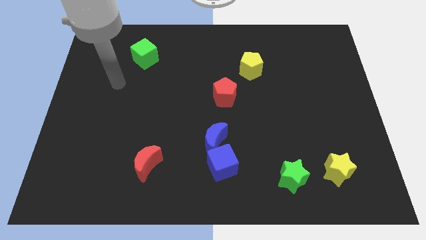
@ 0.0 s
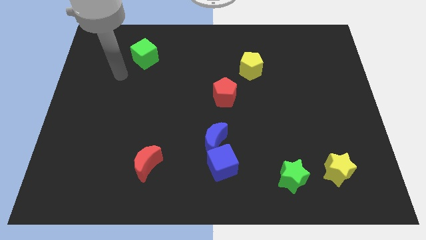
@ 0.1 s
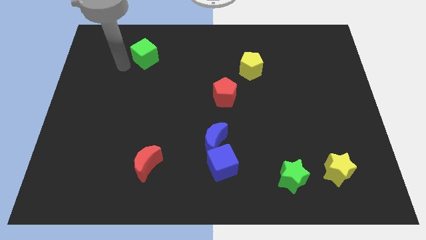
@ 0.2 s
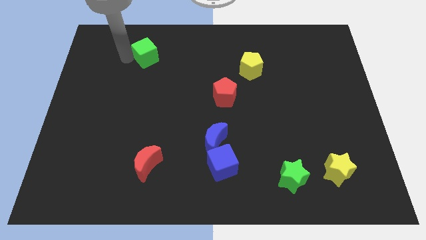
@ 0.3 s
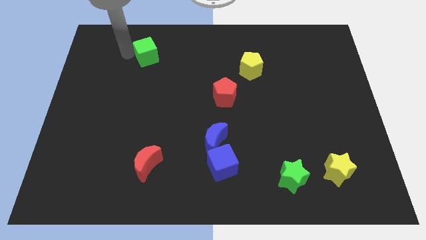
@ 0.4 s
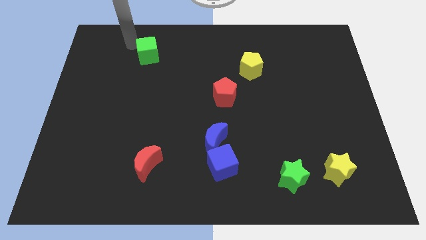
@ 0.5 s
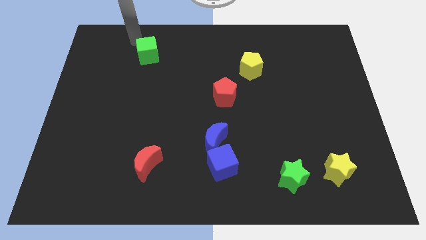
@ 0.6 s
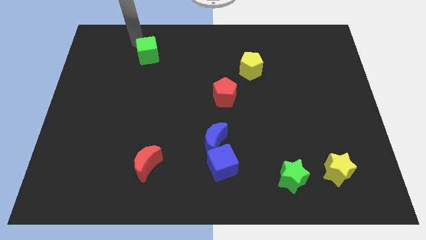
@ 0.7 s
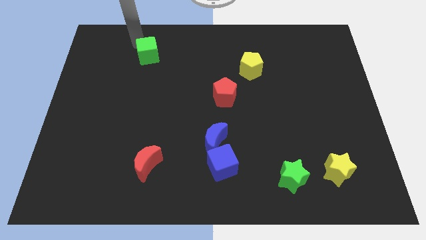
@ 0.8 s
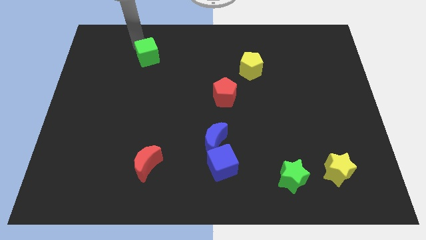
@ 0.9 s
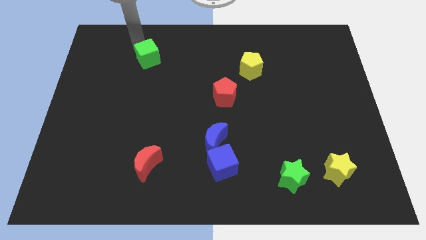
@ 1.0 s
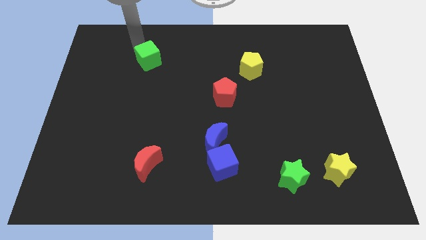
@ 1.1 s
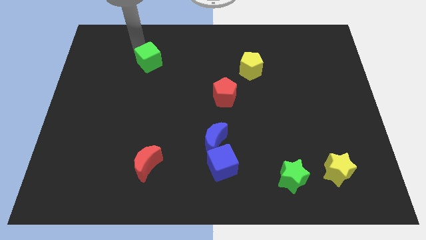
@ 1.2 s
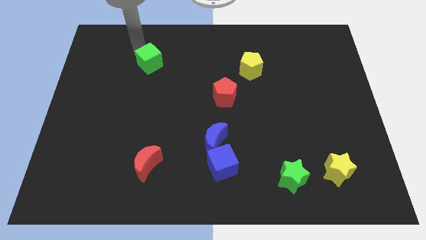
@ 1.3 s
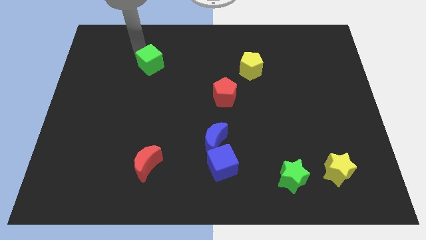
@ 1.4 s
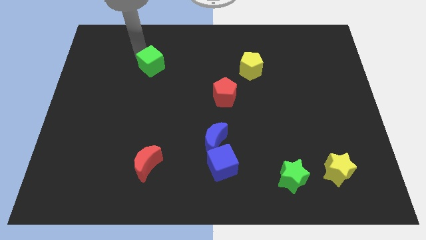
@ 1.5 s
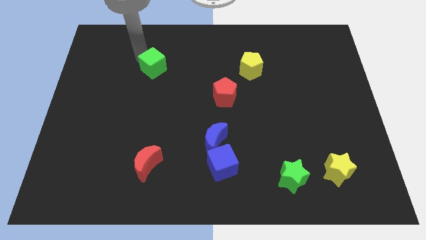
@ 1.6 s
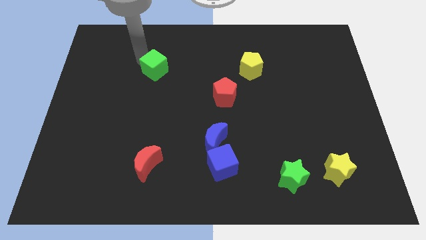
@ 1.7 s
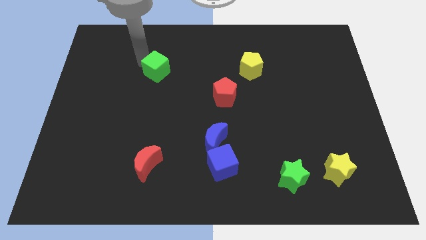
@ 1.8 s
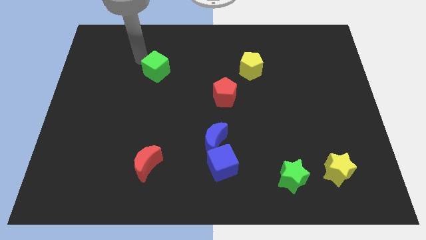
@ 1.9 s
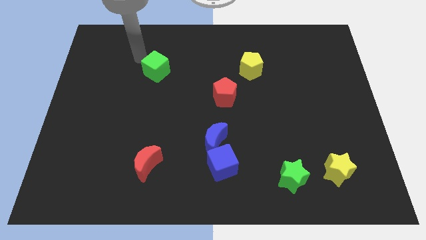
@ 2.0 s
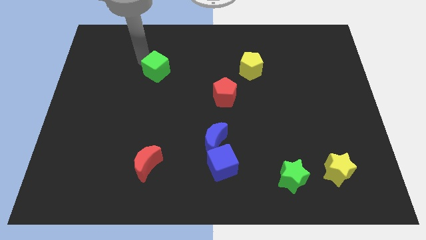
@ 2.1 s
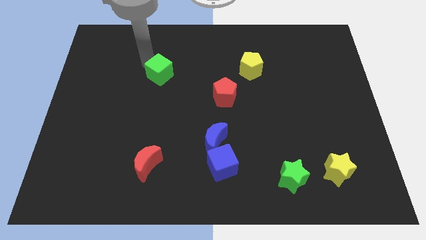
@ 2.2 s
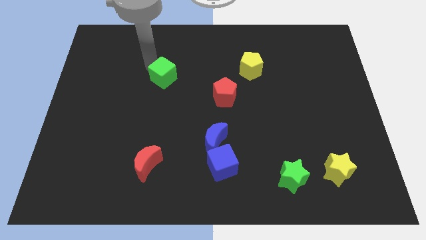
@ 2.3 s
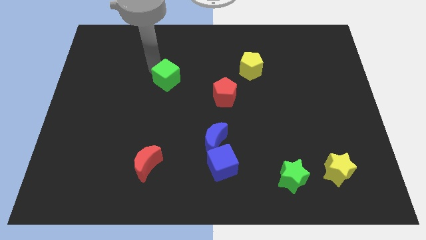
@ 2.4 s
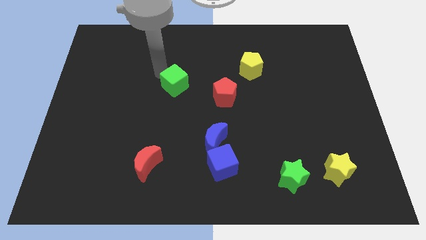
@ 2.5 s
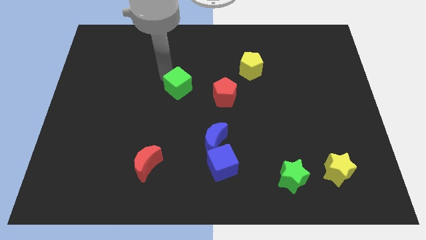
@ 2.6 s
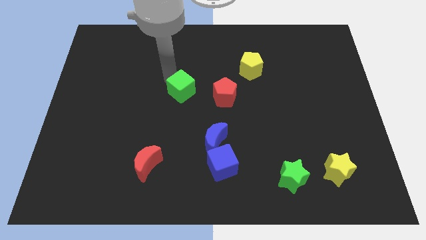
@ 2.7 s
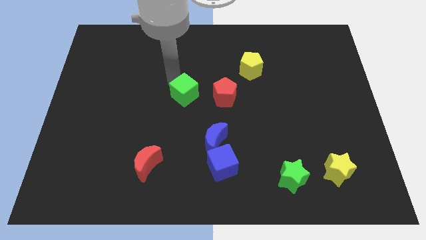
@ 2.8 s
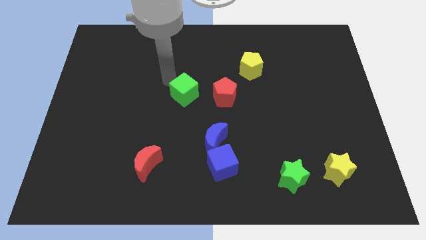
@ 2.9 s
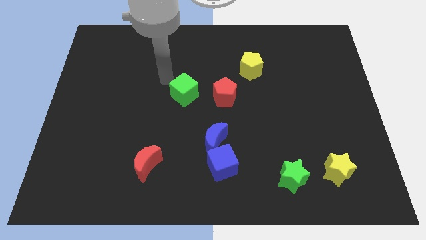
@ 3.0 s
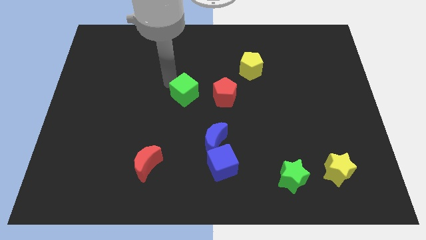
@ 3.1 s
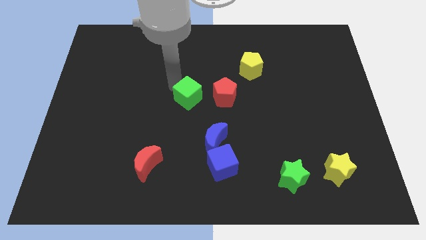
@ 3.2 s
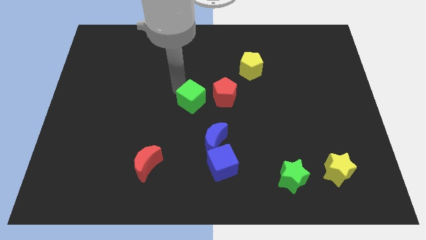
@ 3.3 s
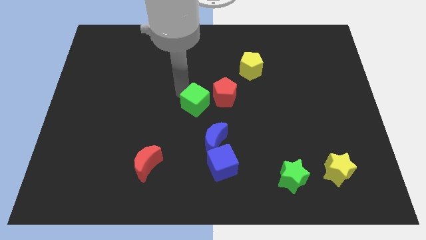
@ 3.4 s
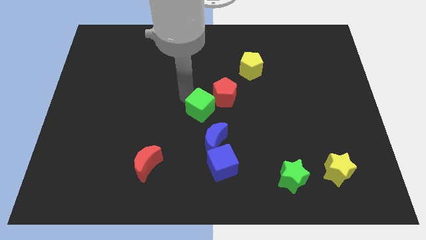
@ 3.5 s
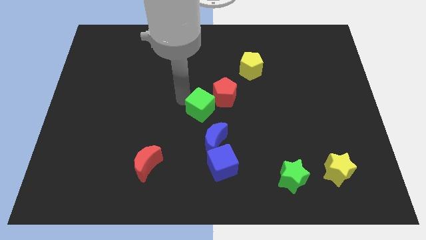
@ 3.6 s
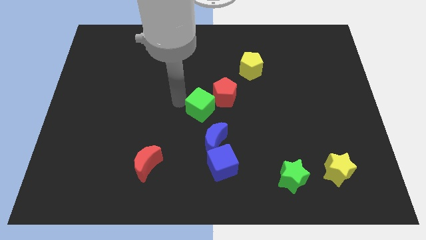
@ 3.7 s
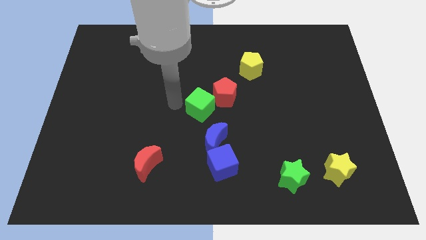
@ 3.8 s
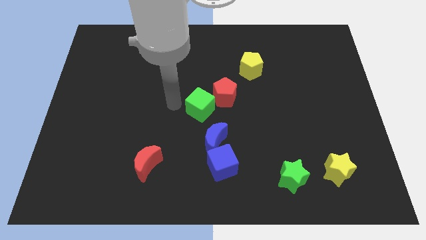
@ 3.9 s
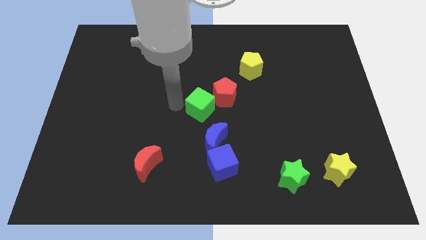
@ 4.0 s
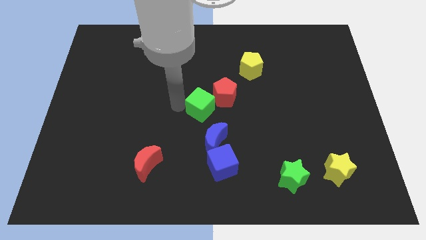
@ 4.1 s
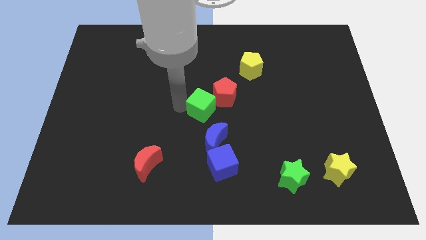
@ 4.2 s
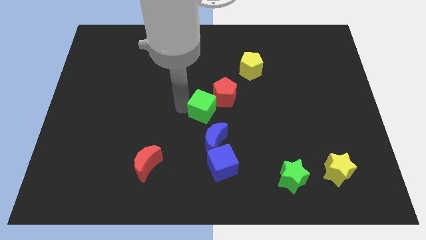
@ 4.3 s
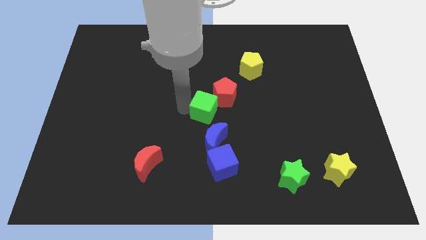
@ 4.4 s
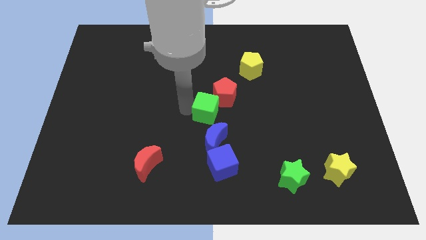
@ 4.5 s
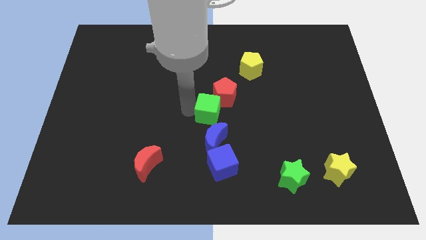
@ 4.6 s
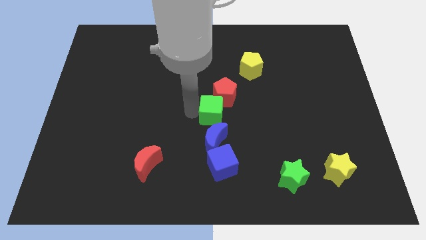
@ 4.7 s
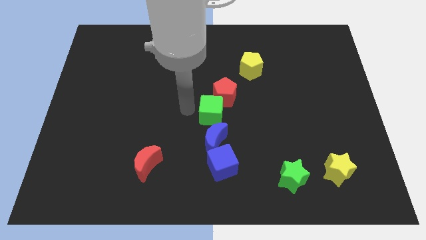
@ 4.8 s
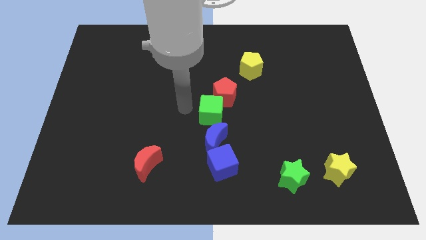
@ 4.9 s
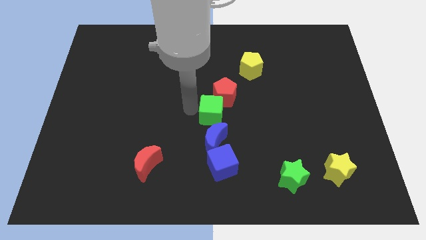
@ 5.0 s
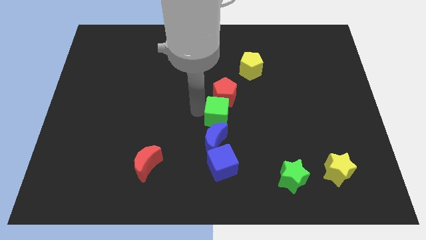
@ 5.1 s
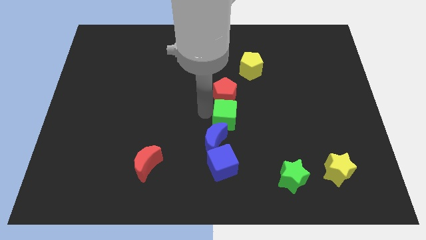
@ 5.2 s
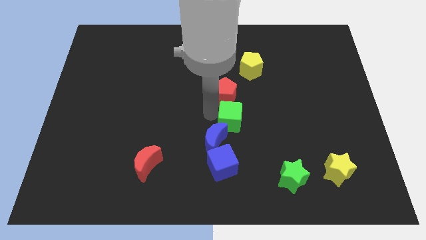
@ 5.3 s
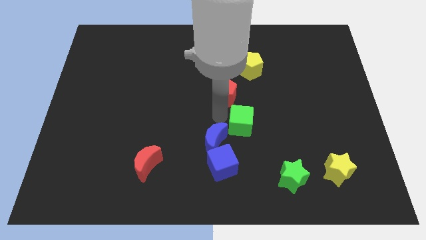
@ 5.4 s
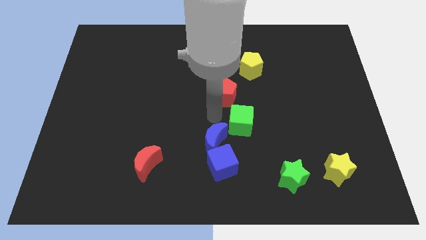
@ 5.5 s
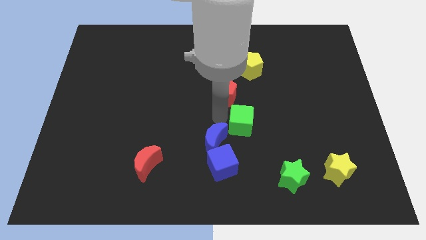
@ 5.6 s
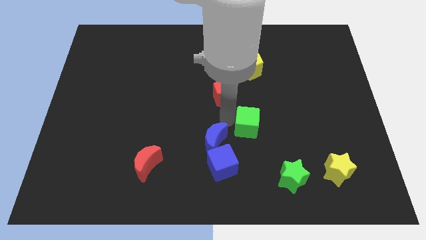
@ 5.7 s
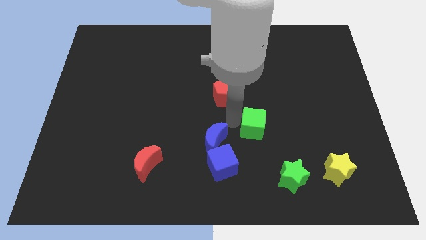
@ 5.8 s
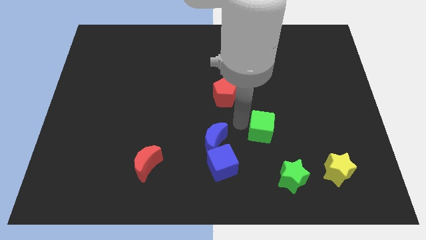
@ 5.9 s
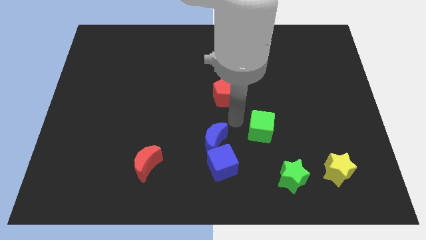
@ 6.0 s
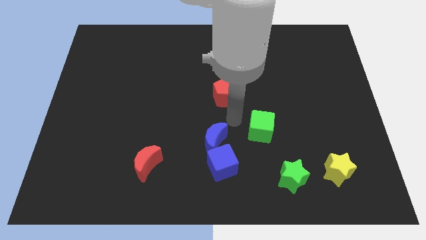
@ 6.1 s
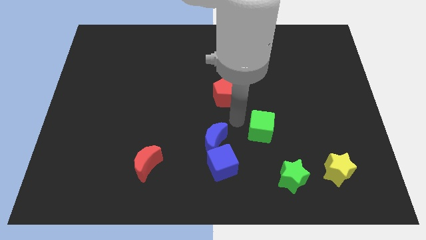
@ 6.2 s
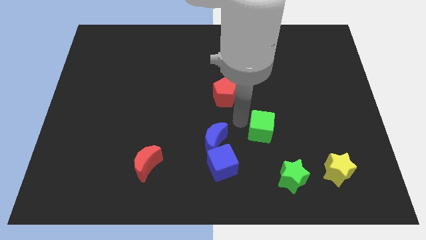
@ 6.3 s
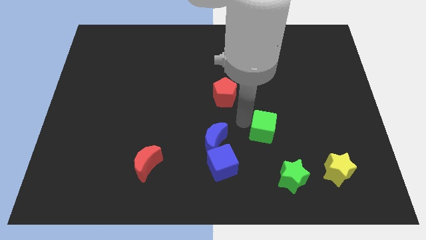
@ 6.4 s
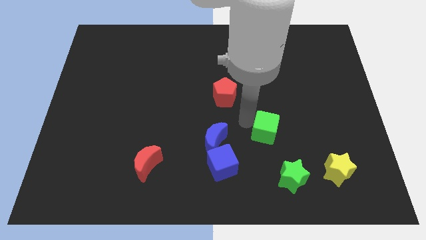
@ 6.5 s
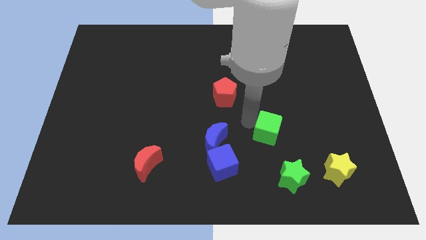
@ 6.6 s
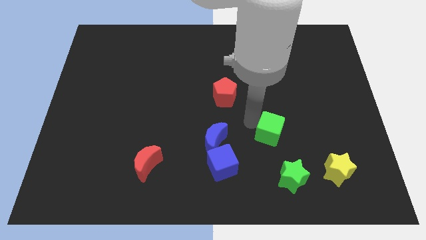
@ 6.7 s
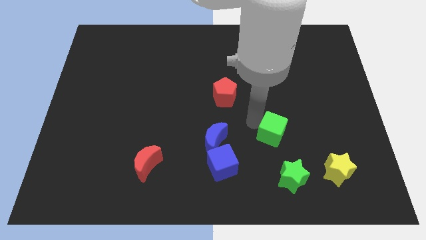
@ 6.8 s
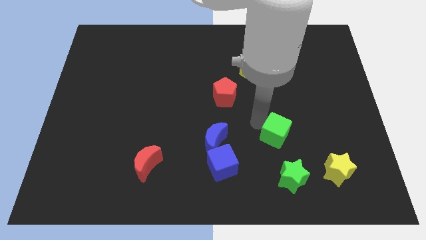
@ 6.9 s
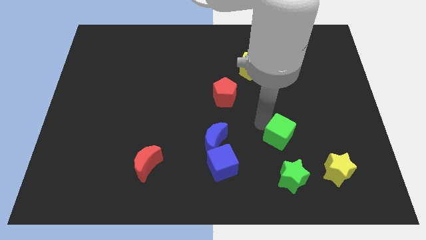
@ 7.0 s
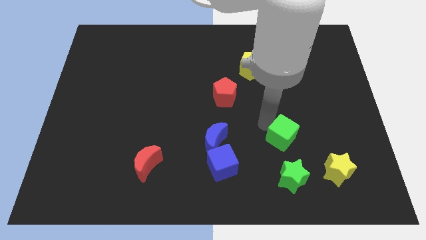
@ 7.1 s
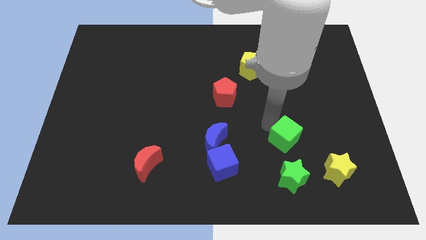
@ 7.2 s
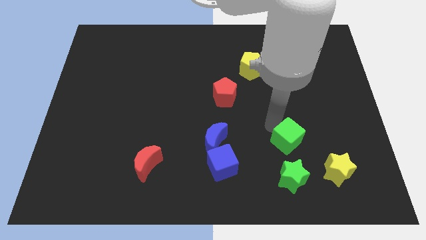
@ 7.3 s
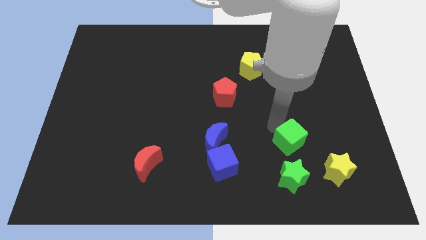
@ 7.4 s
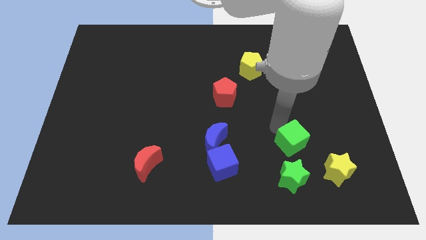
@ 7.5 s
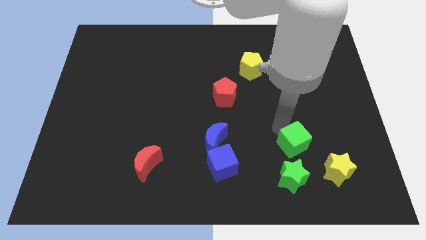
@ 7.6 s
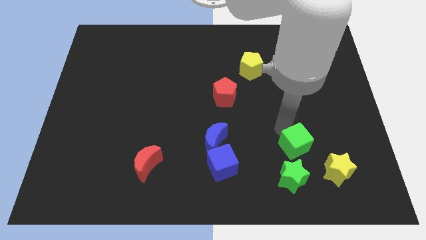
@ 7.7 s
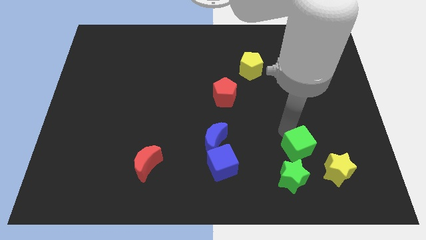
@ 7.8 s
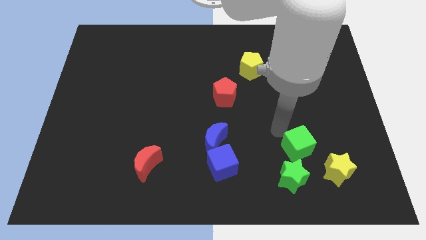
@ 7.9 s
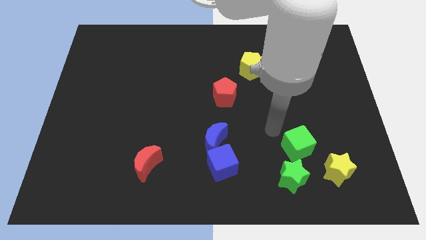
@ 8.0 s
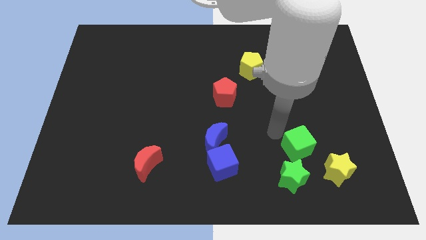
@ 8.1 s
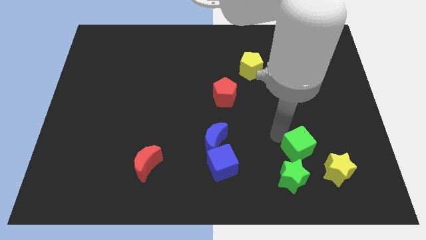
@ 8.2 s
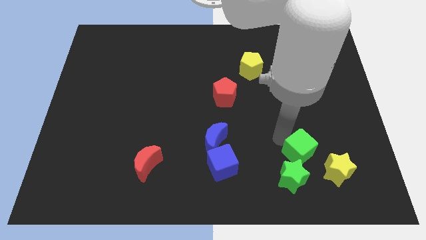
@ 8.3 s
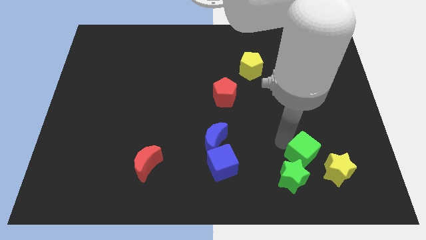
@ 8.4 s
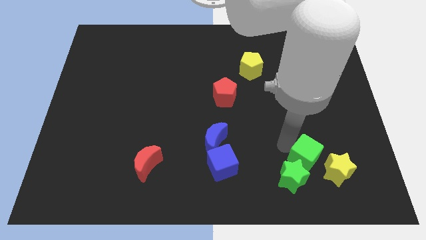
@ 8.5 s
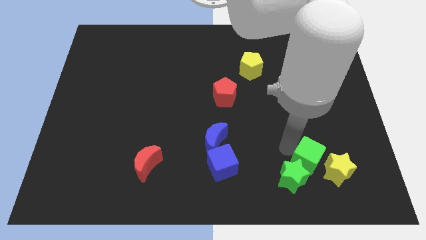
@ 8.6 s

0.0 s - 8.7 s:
move the green cube to the yellow star
